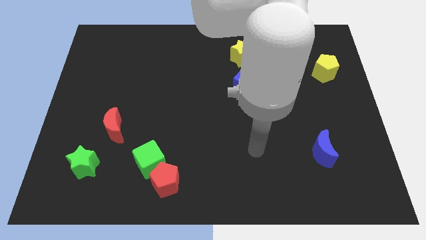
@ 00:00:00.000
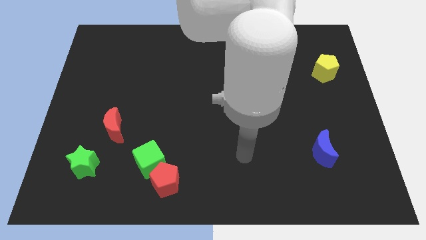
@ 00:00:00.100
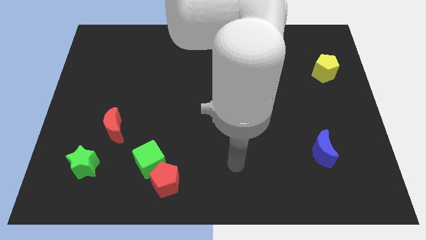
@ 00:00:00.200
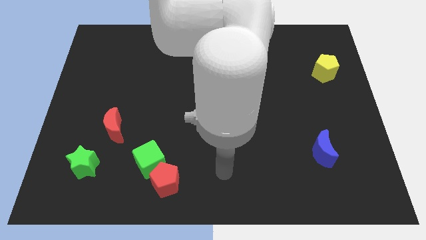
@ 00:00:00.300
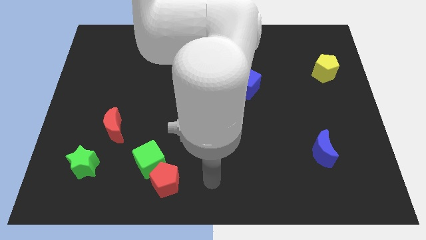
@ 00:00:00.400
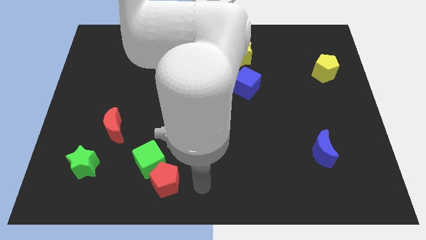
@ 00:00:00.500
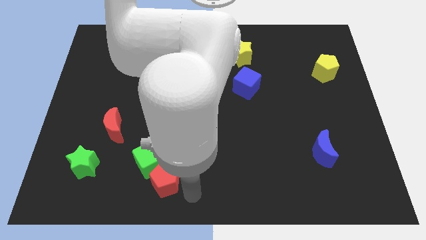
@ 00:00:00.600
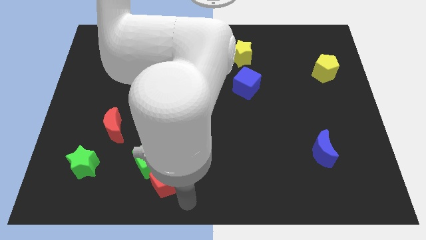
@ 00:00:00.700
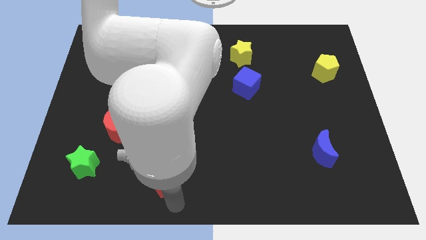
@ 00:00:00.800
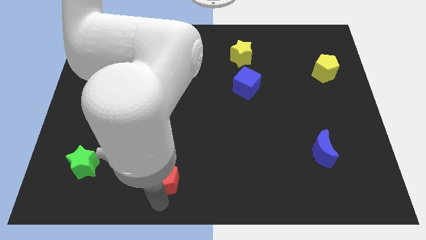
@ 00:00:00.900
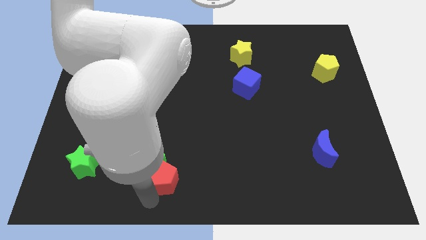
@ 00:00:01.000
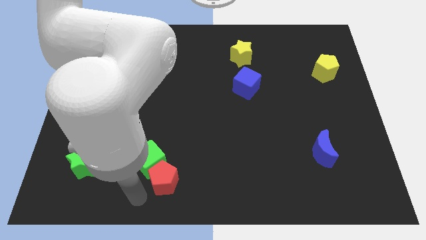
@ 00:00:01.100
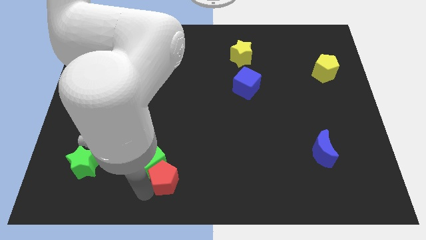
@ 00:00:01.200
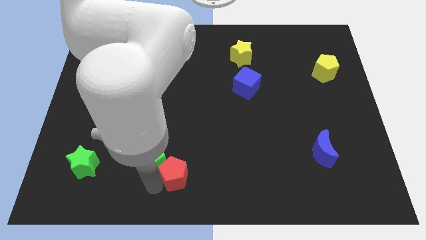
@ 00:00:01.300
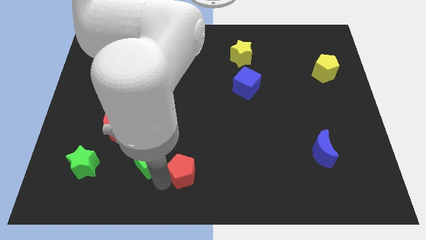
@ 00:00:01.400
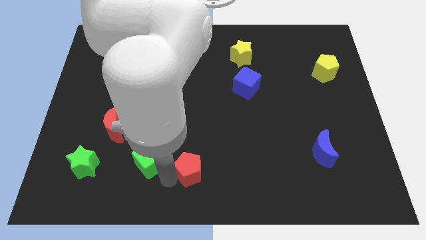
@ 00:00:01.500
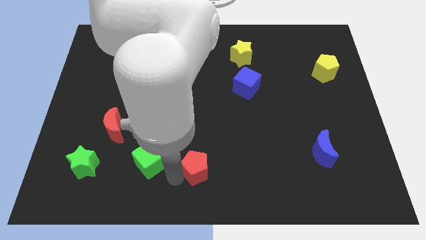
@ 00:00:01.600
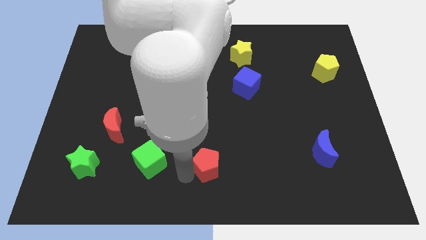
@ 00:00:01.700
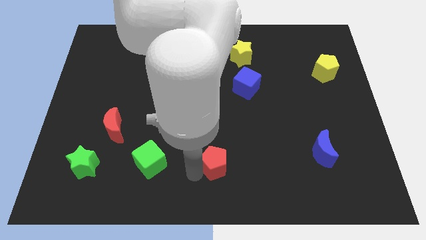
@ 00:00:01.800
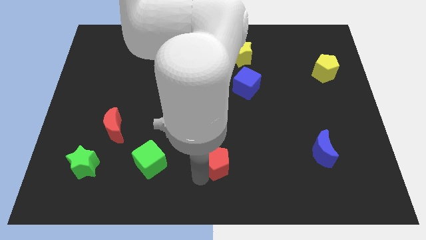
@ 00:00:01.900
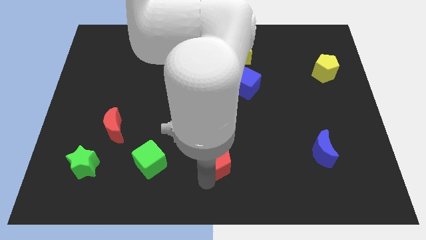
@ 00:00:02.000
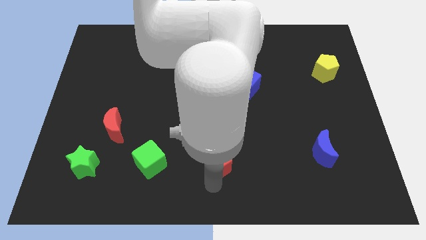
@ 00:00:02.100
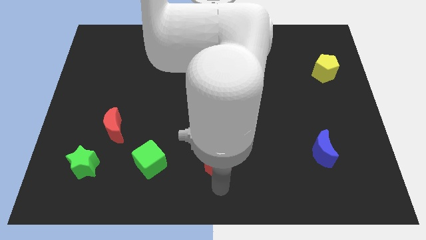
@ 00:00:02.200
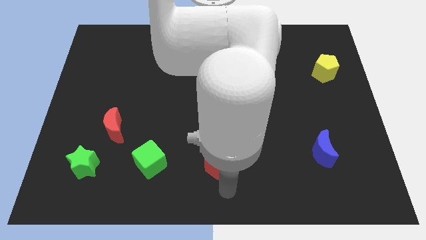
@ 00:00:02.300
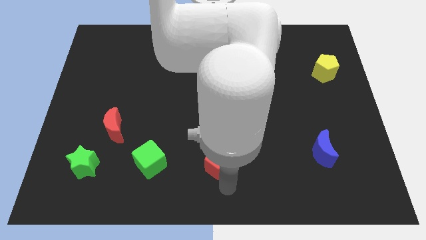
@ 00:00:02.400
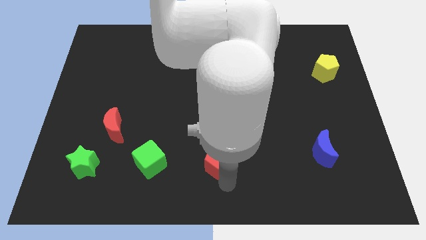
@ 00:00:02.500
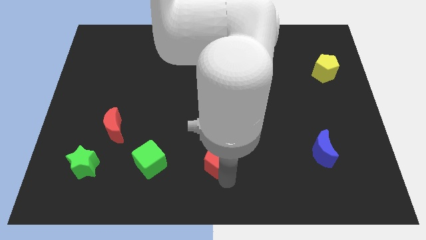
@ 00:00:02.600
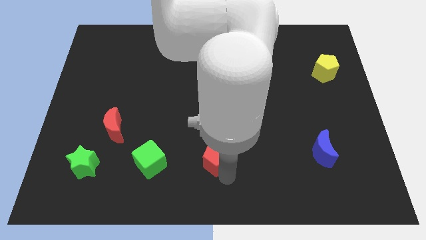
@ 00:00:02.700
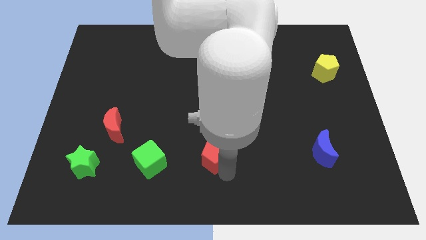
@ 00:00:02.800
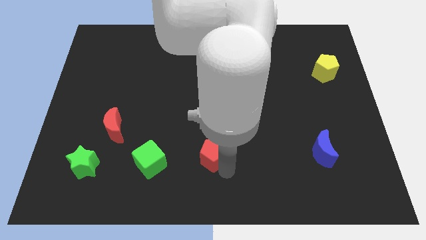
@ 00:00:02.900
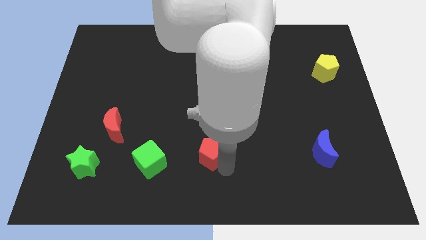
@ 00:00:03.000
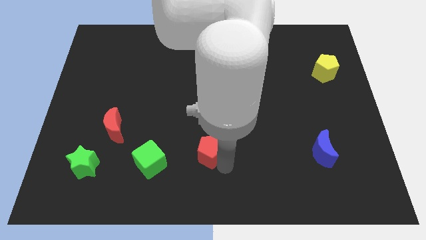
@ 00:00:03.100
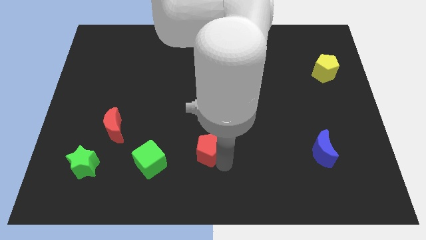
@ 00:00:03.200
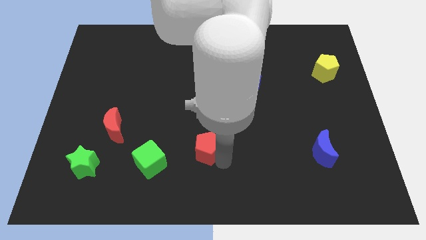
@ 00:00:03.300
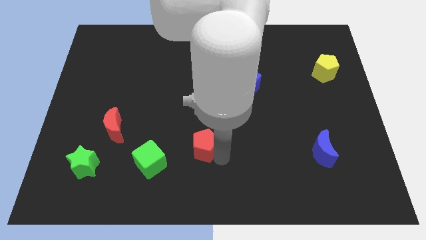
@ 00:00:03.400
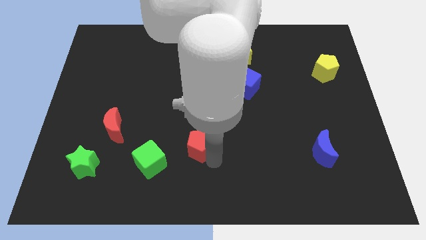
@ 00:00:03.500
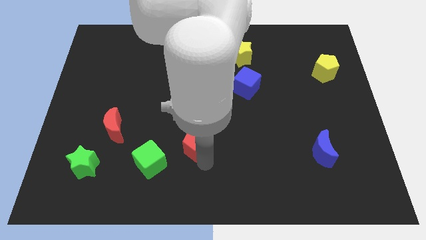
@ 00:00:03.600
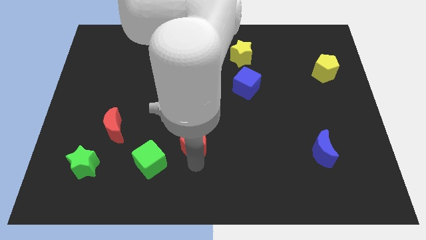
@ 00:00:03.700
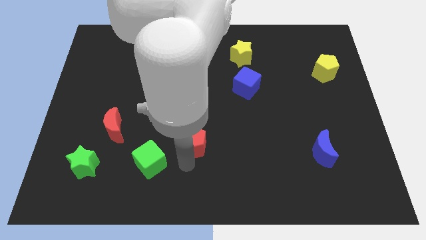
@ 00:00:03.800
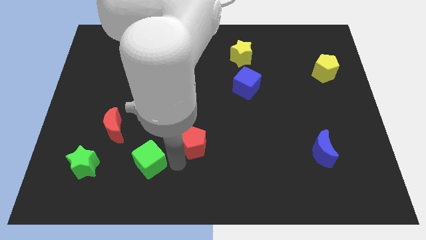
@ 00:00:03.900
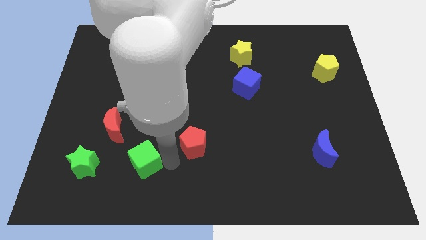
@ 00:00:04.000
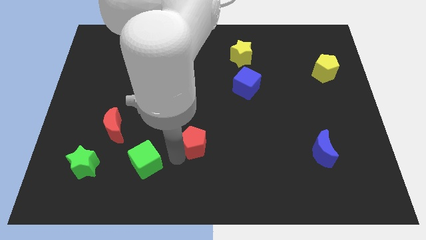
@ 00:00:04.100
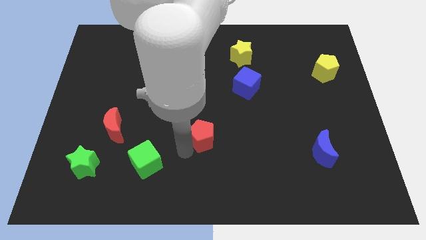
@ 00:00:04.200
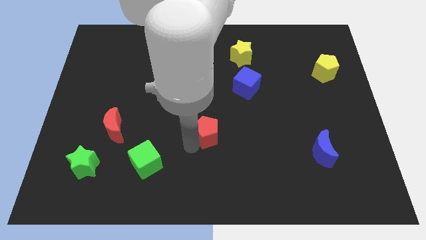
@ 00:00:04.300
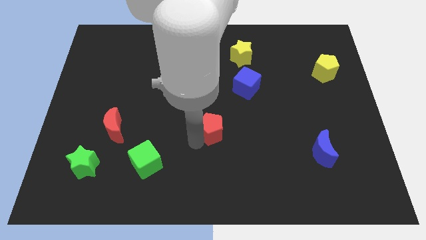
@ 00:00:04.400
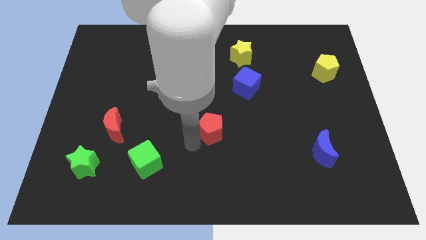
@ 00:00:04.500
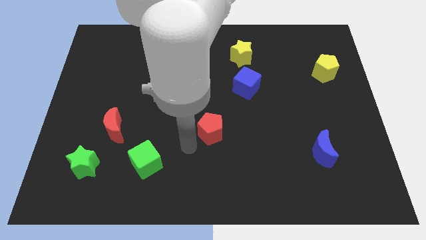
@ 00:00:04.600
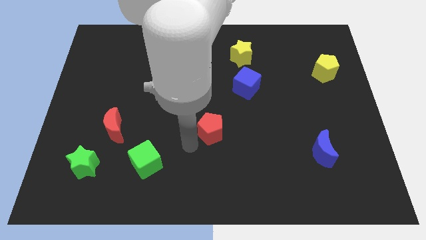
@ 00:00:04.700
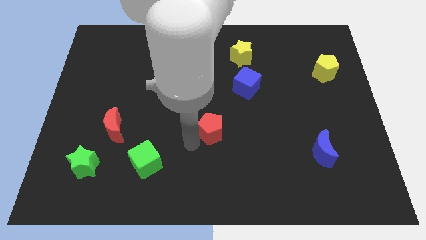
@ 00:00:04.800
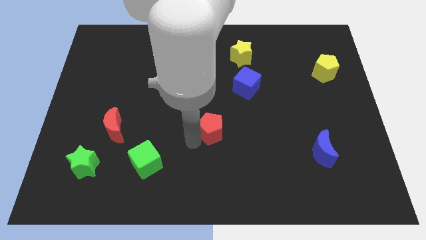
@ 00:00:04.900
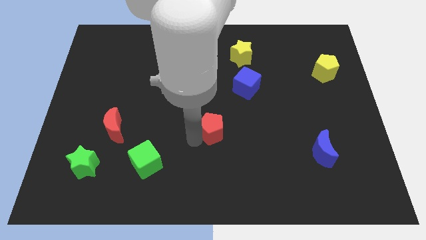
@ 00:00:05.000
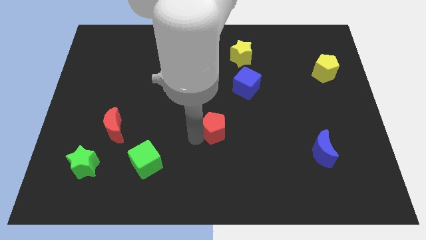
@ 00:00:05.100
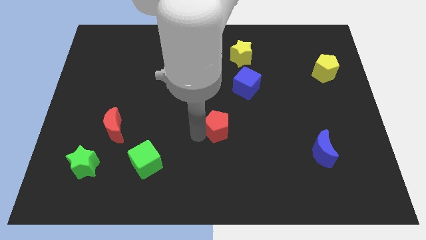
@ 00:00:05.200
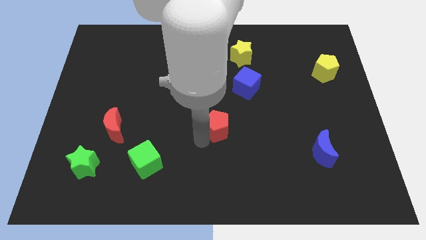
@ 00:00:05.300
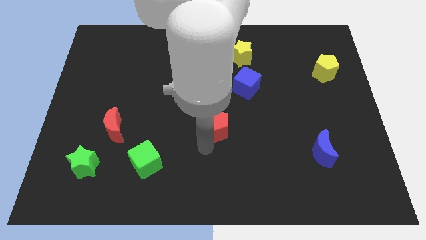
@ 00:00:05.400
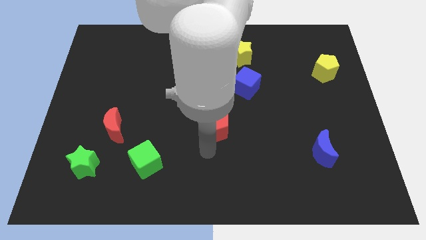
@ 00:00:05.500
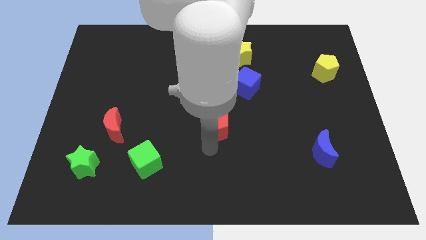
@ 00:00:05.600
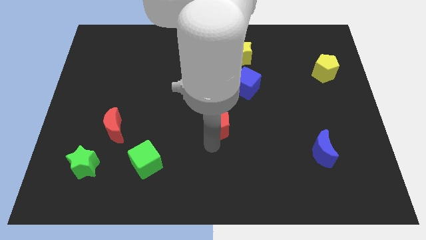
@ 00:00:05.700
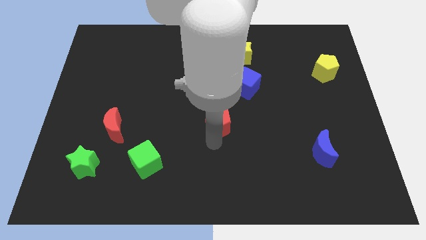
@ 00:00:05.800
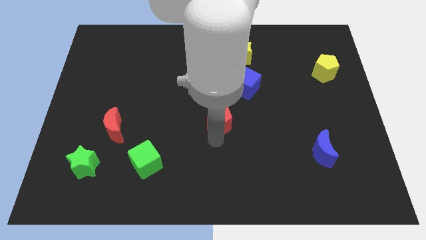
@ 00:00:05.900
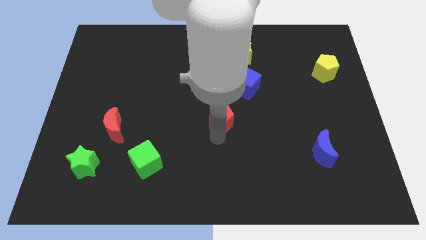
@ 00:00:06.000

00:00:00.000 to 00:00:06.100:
move the red pentagon to the bottom left of the blue cube
